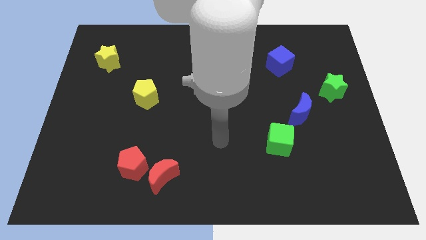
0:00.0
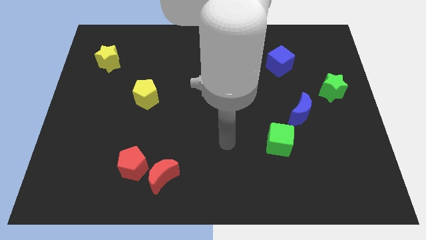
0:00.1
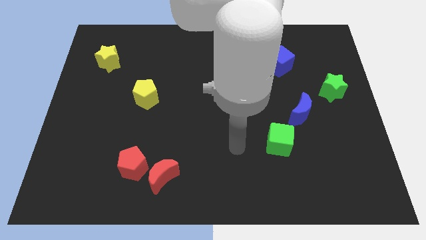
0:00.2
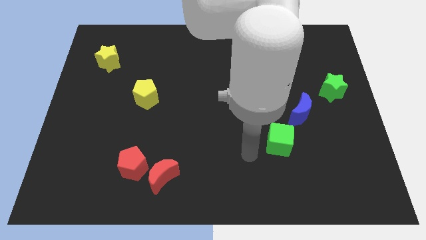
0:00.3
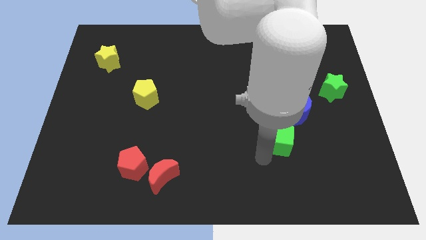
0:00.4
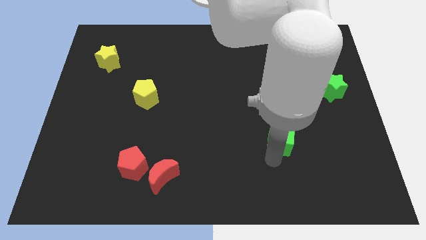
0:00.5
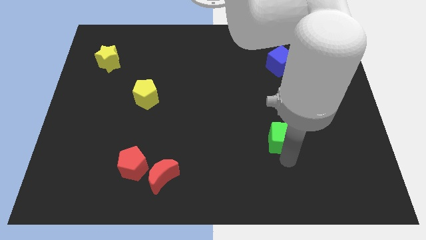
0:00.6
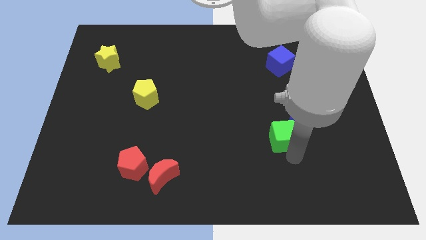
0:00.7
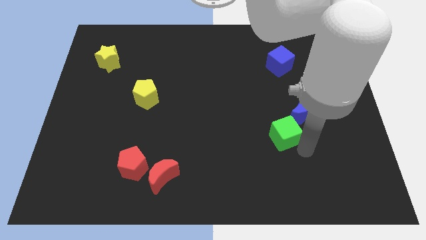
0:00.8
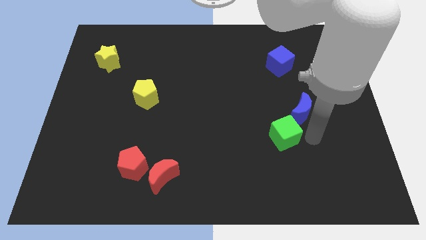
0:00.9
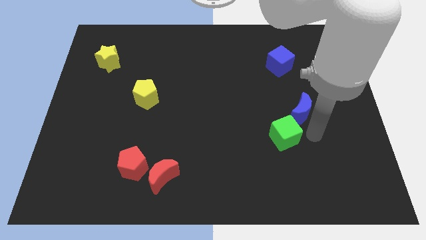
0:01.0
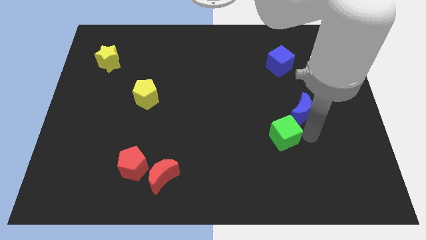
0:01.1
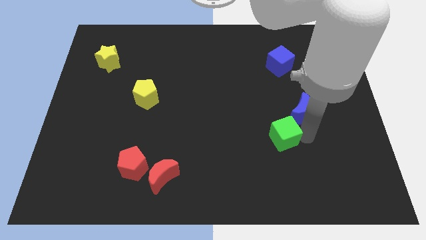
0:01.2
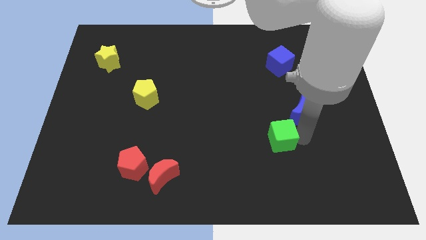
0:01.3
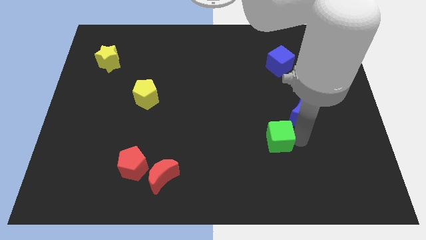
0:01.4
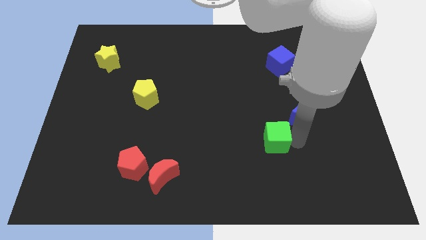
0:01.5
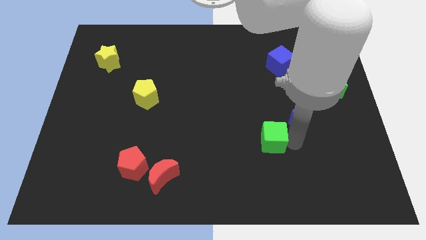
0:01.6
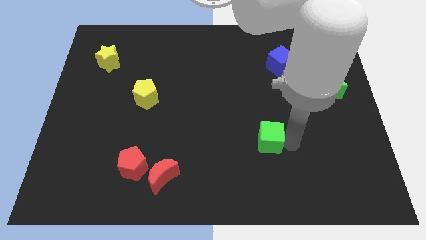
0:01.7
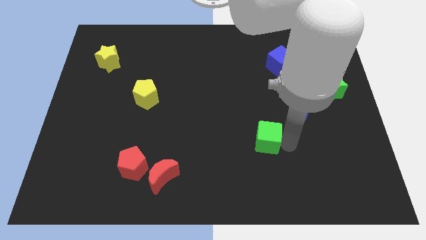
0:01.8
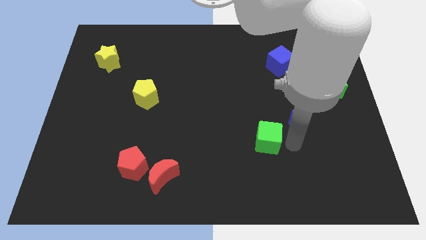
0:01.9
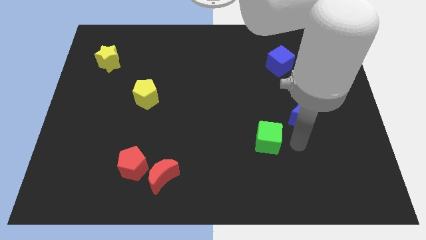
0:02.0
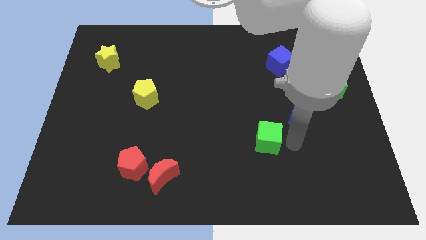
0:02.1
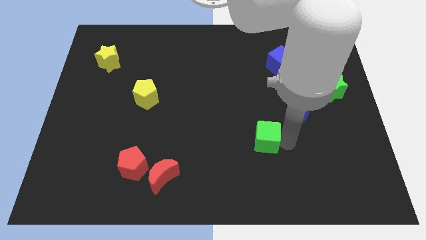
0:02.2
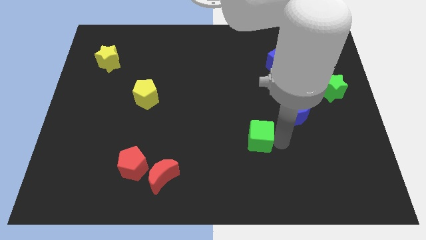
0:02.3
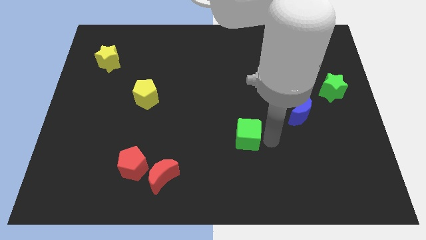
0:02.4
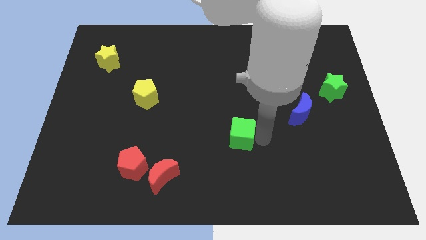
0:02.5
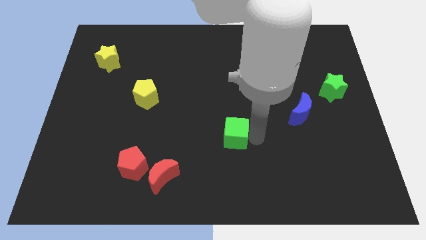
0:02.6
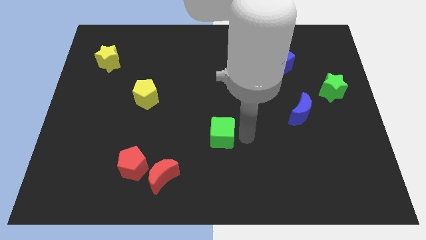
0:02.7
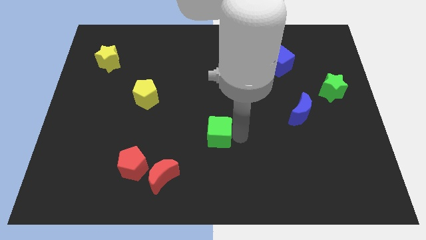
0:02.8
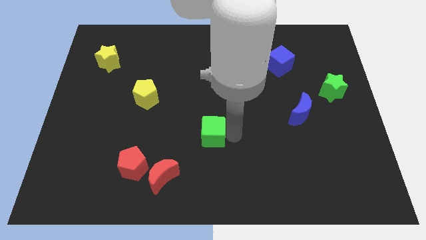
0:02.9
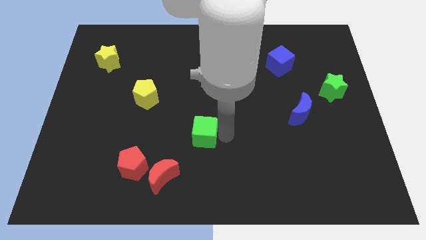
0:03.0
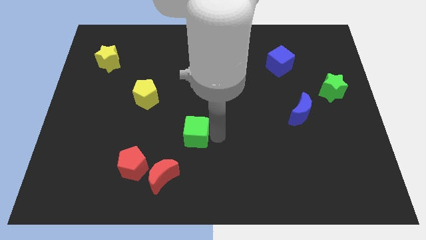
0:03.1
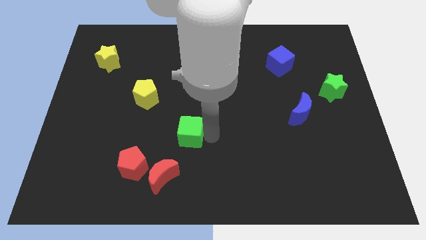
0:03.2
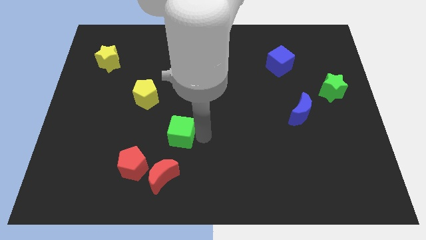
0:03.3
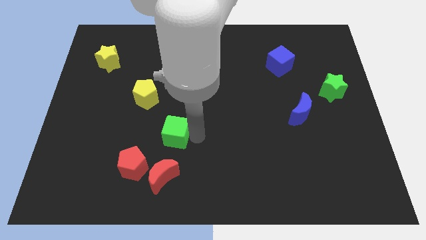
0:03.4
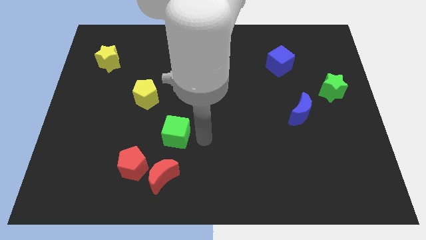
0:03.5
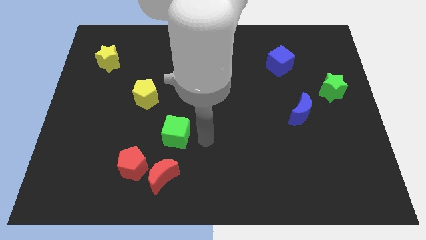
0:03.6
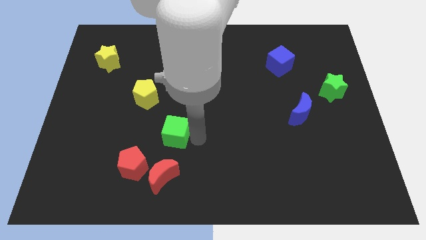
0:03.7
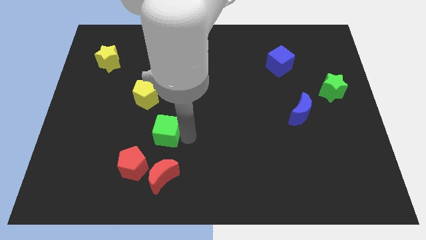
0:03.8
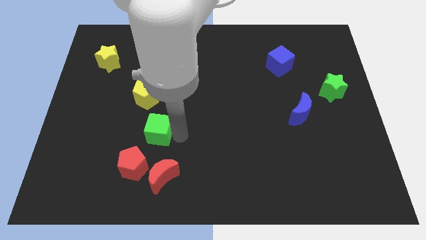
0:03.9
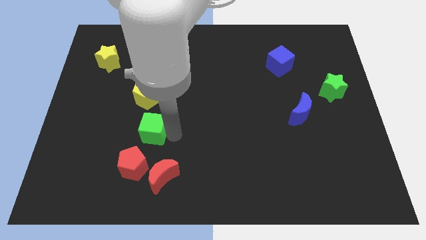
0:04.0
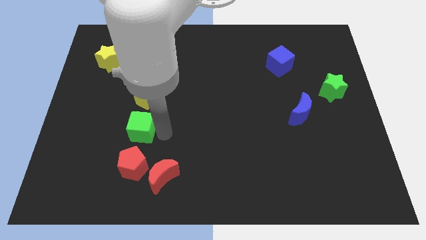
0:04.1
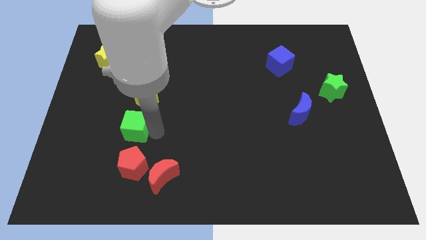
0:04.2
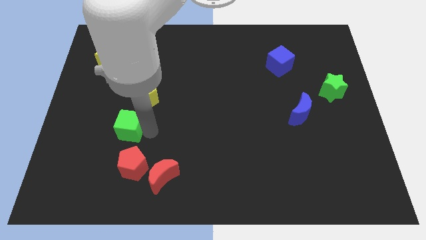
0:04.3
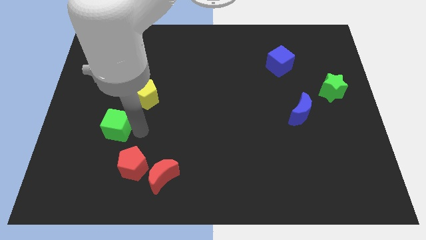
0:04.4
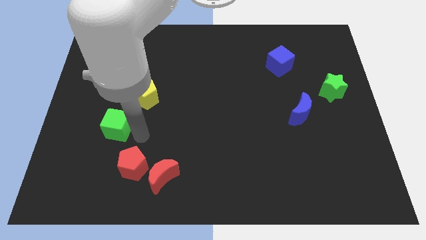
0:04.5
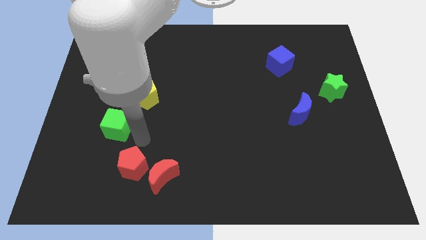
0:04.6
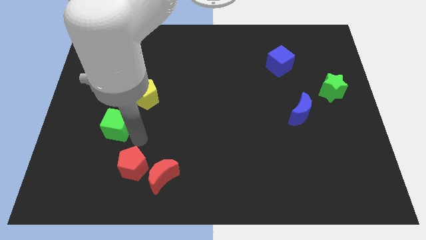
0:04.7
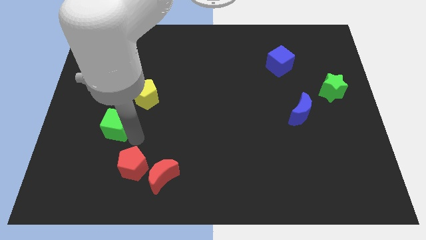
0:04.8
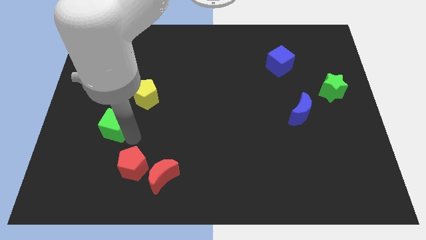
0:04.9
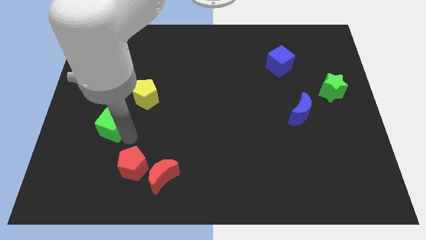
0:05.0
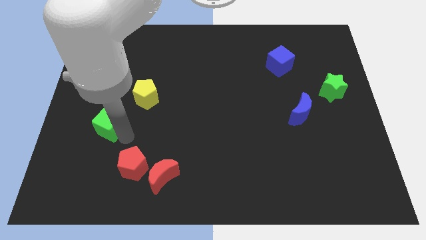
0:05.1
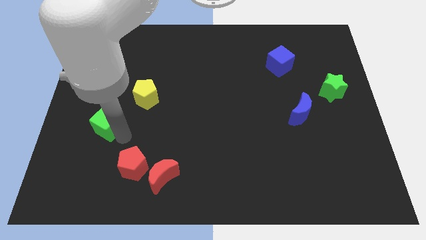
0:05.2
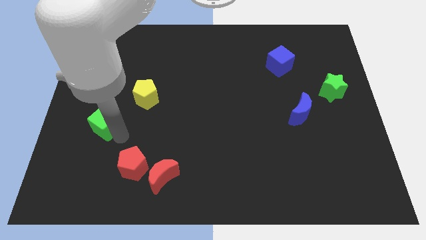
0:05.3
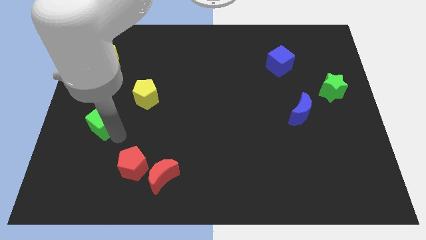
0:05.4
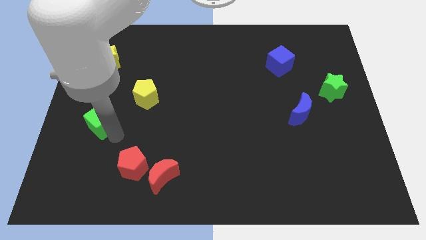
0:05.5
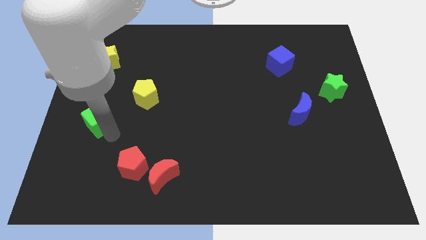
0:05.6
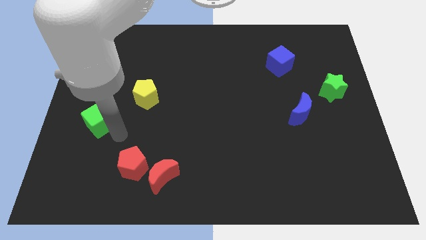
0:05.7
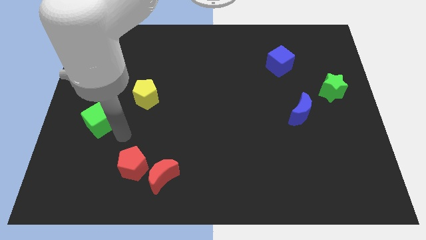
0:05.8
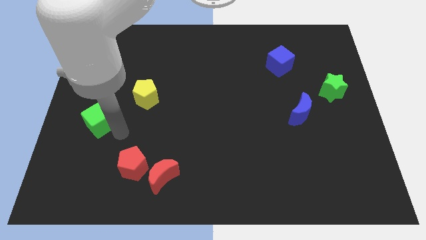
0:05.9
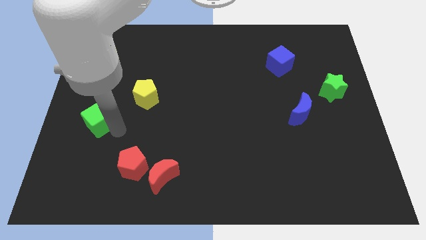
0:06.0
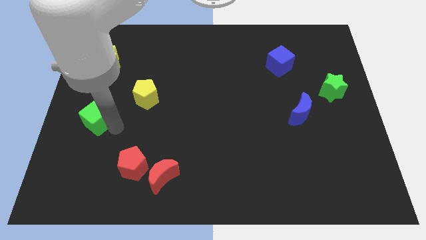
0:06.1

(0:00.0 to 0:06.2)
slide the green cube to the left side of the board
